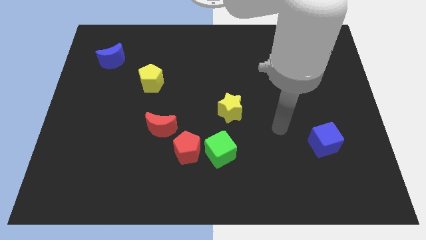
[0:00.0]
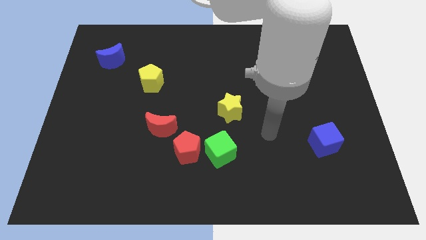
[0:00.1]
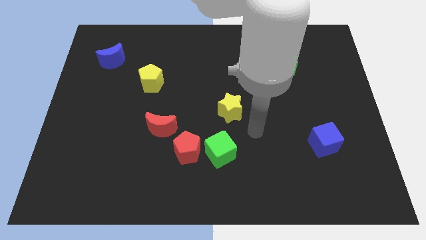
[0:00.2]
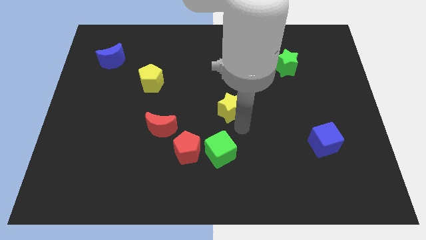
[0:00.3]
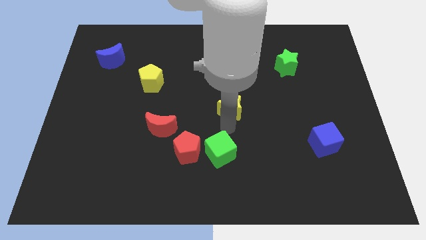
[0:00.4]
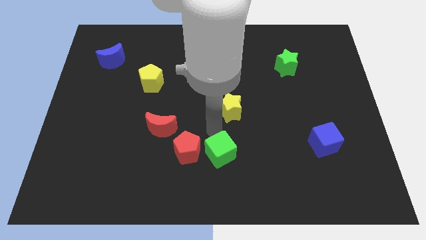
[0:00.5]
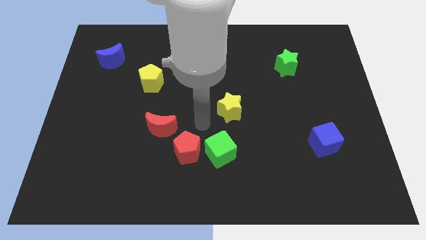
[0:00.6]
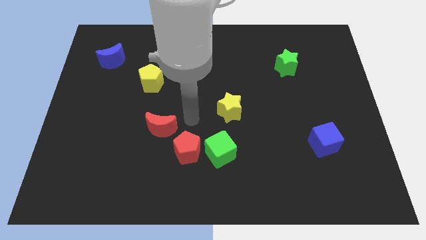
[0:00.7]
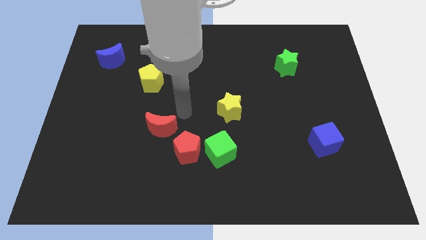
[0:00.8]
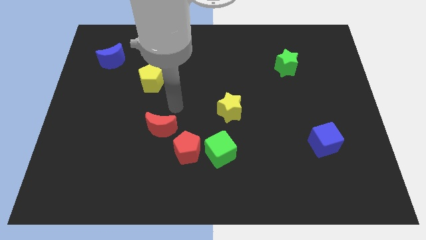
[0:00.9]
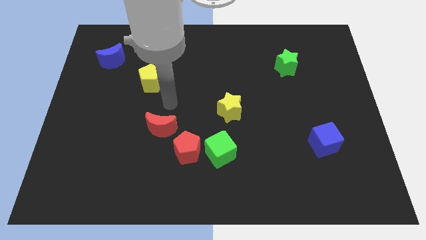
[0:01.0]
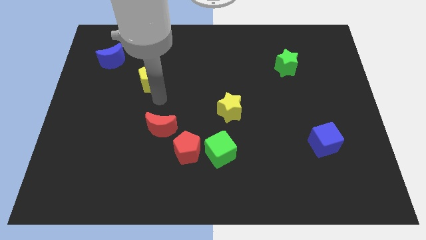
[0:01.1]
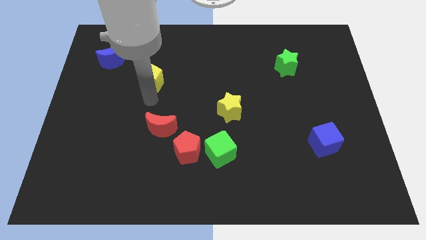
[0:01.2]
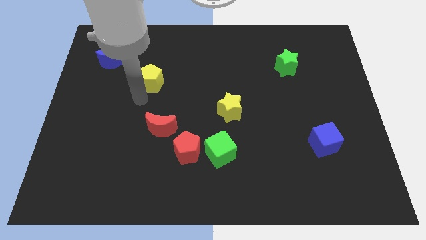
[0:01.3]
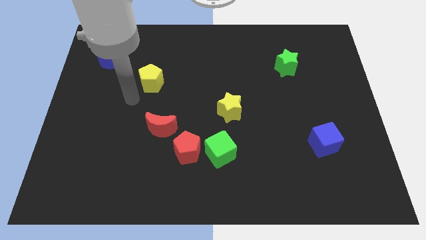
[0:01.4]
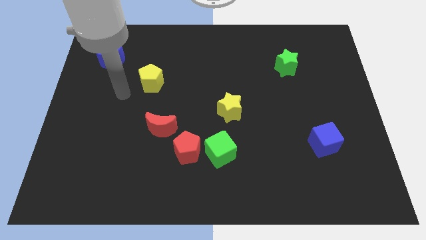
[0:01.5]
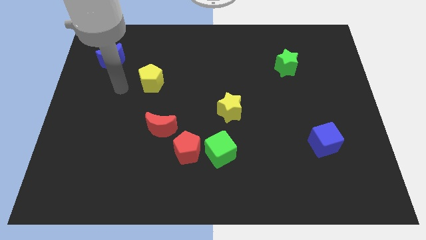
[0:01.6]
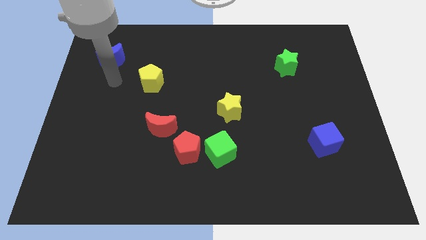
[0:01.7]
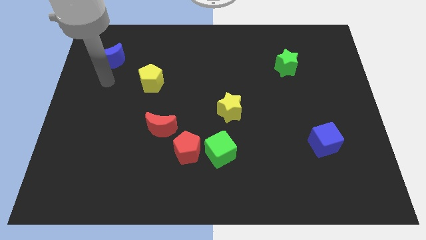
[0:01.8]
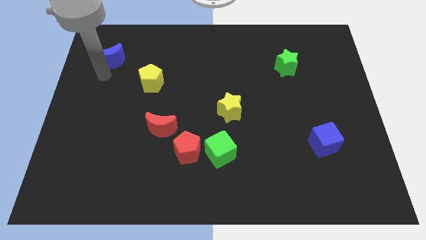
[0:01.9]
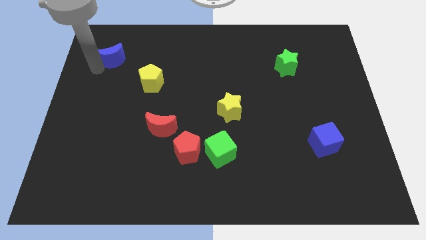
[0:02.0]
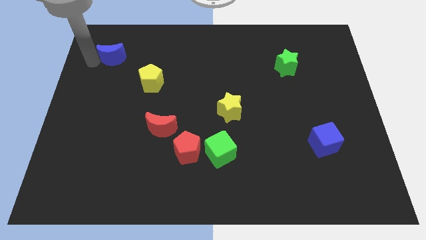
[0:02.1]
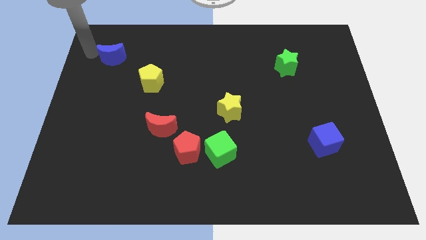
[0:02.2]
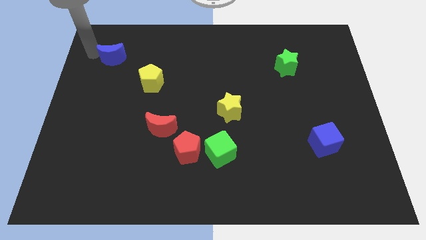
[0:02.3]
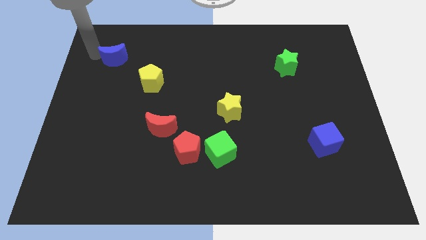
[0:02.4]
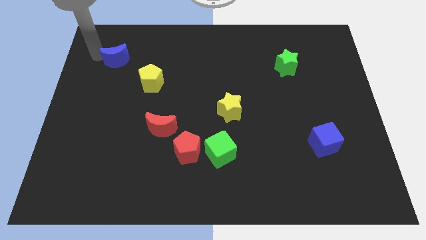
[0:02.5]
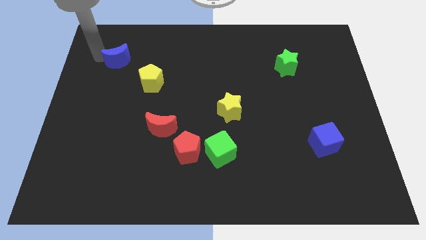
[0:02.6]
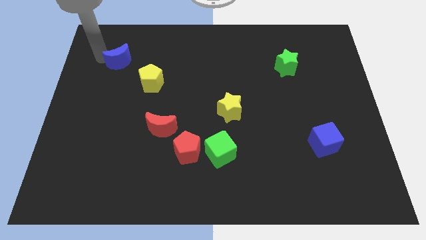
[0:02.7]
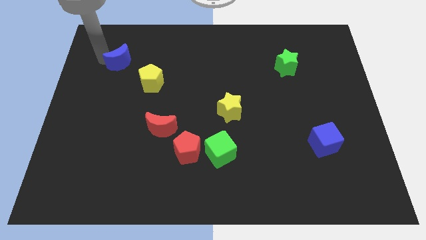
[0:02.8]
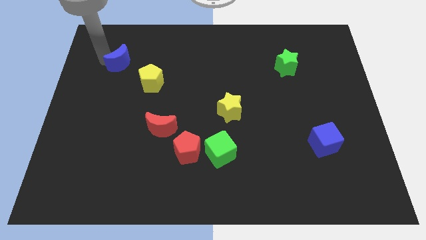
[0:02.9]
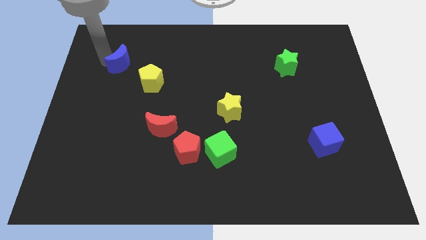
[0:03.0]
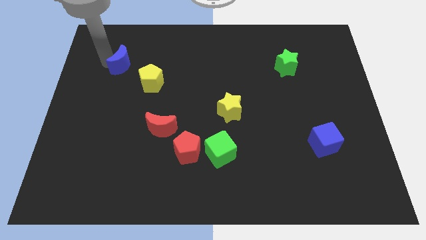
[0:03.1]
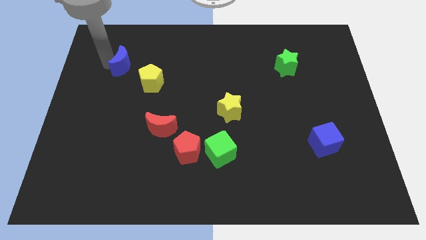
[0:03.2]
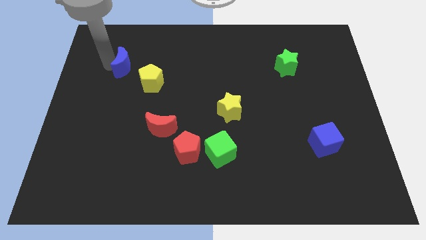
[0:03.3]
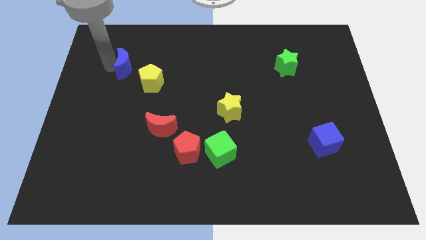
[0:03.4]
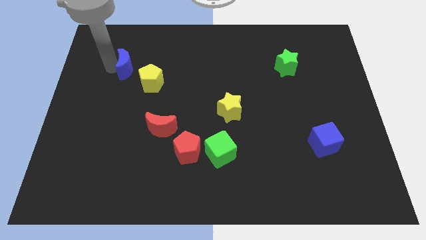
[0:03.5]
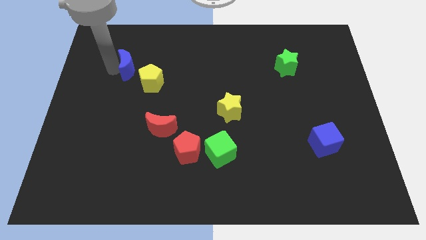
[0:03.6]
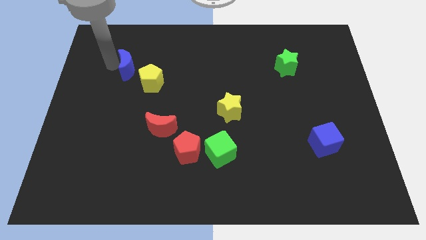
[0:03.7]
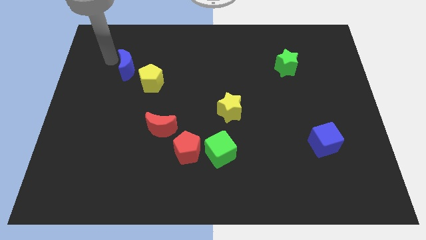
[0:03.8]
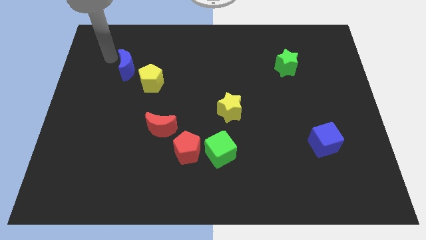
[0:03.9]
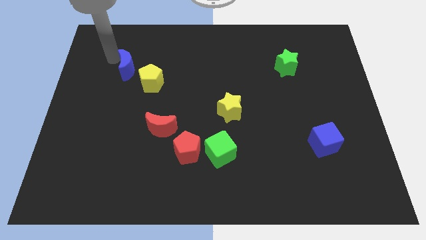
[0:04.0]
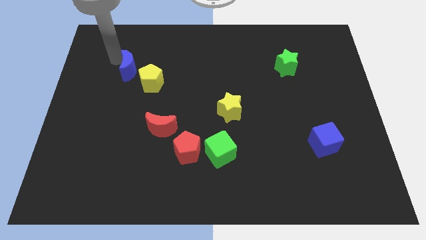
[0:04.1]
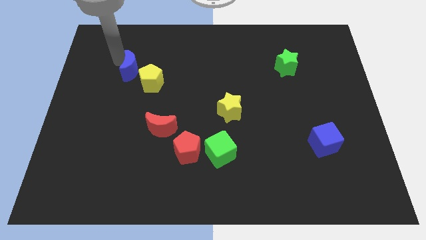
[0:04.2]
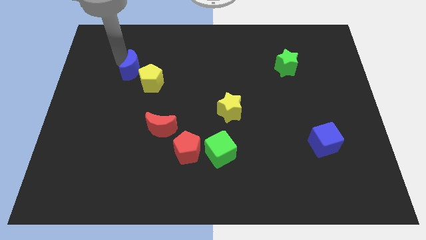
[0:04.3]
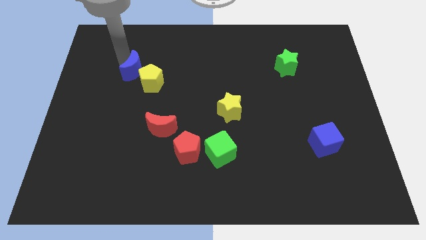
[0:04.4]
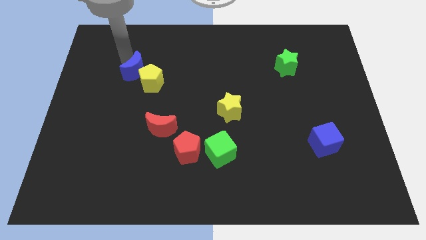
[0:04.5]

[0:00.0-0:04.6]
slide the blue moon close to the yellow pentagon

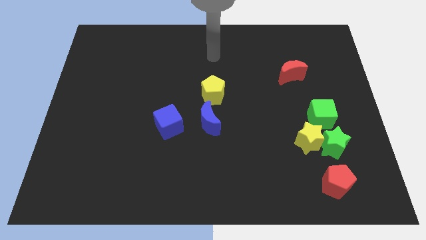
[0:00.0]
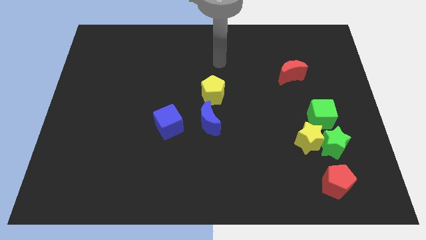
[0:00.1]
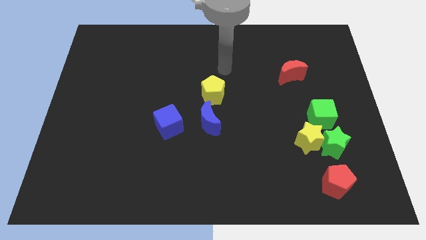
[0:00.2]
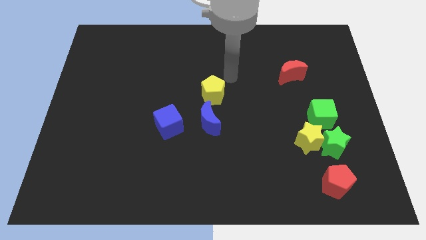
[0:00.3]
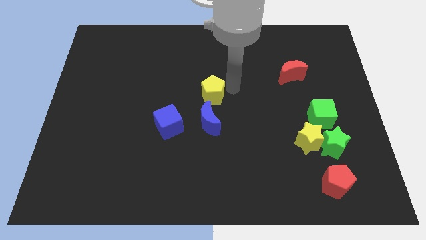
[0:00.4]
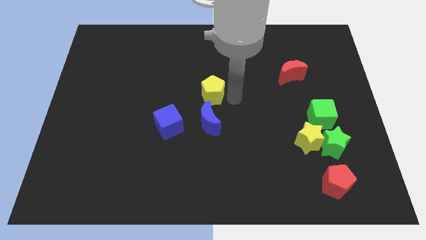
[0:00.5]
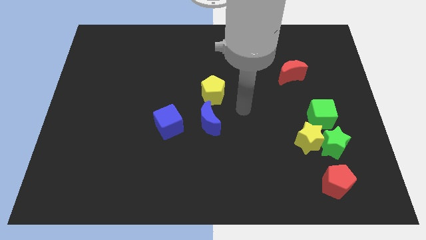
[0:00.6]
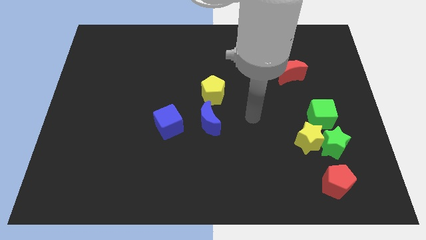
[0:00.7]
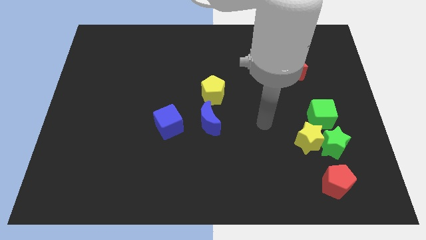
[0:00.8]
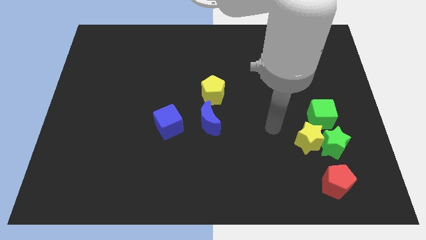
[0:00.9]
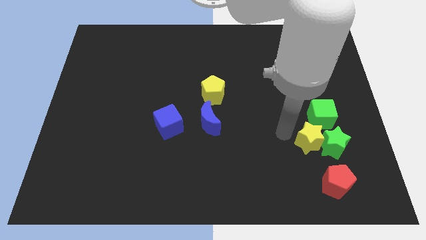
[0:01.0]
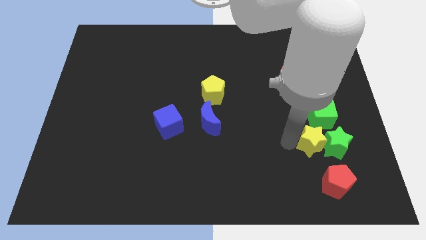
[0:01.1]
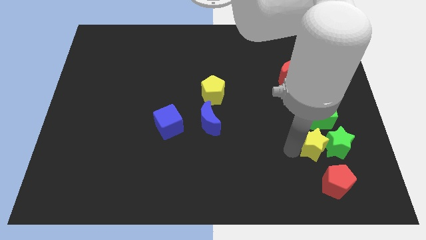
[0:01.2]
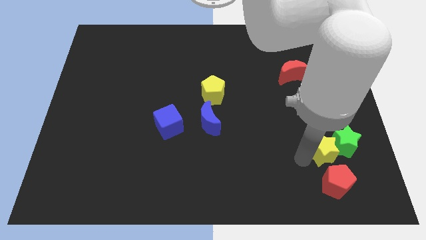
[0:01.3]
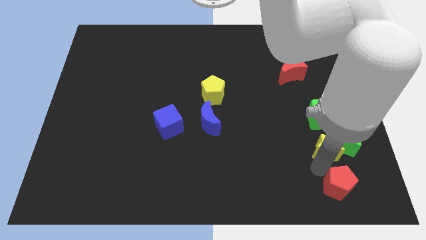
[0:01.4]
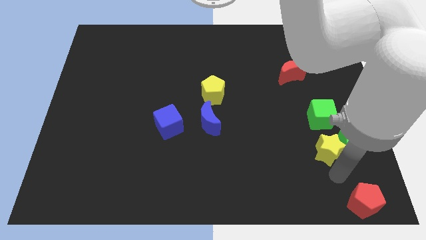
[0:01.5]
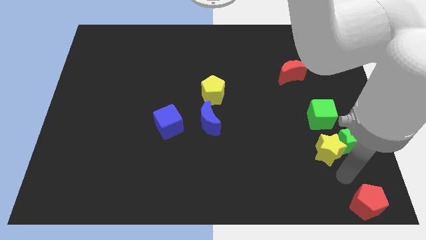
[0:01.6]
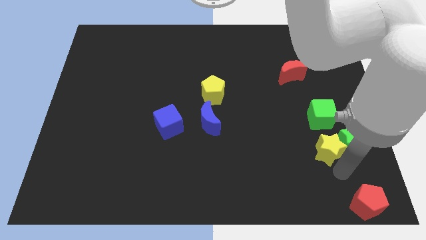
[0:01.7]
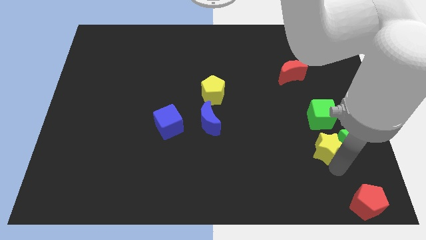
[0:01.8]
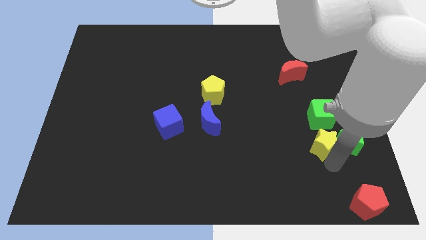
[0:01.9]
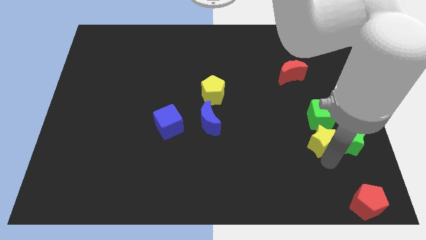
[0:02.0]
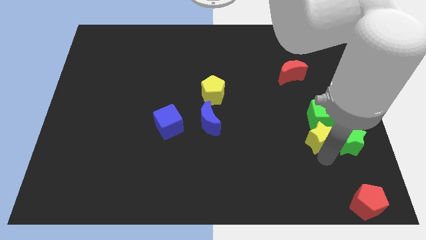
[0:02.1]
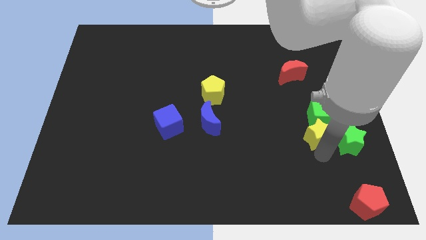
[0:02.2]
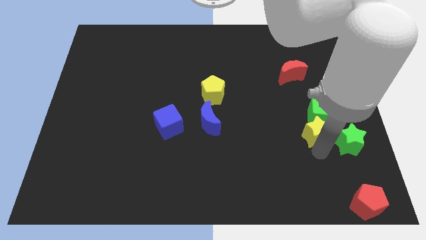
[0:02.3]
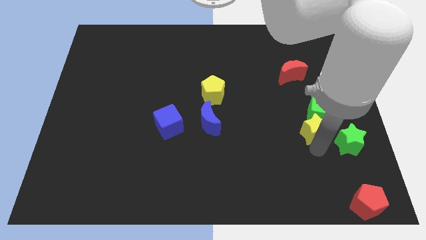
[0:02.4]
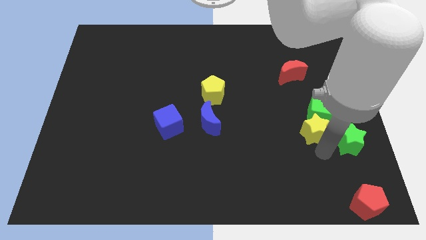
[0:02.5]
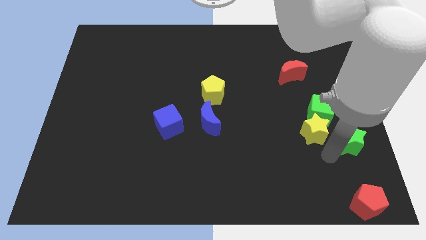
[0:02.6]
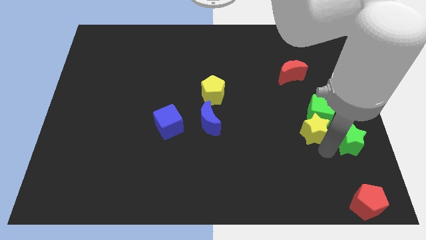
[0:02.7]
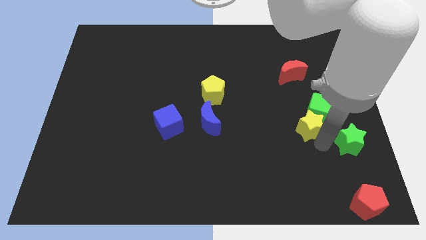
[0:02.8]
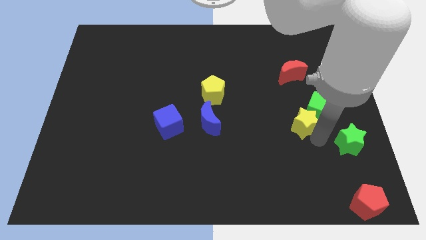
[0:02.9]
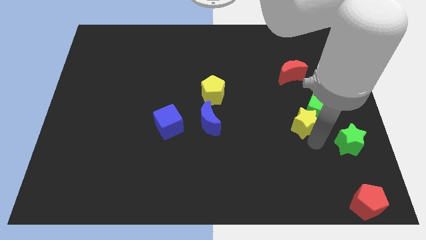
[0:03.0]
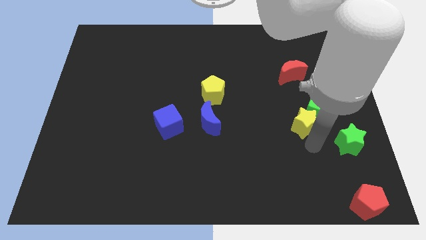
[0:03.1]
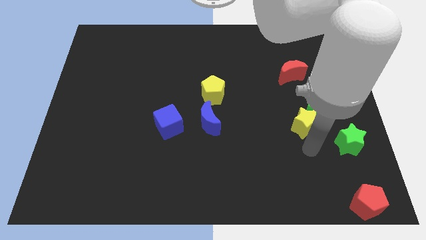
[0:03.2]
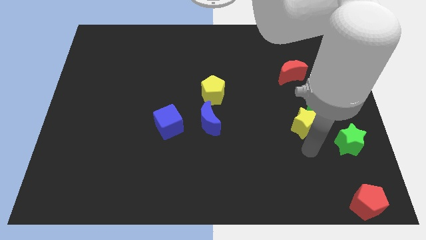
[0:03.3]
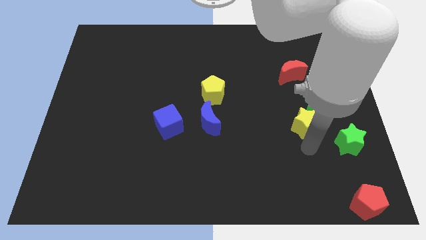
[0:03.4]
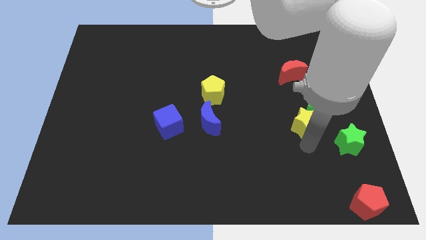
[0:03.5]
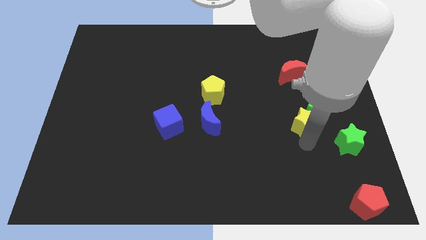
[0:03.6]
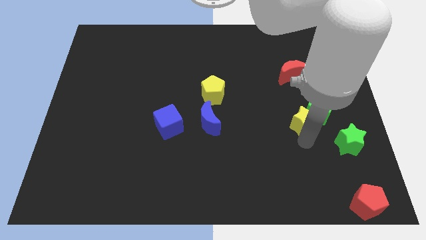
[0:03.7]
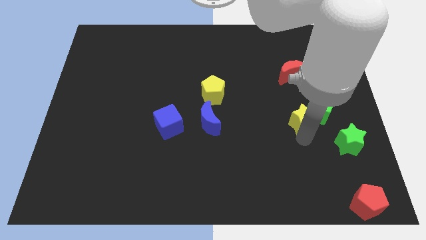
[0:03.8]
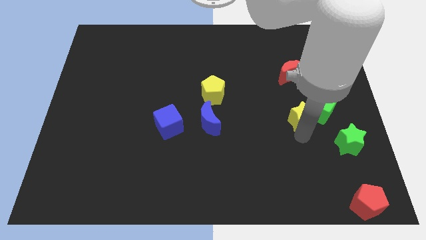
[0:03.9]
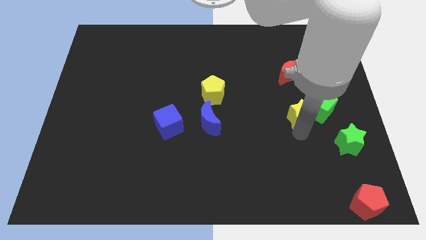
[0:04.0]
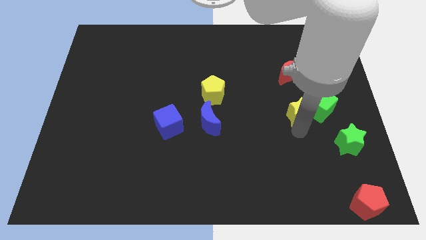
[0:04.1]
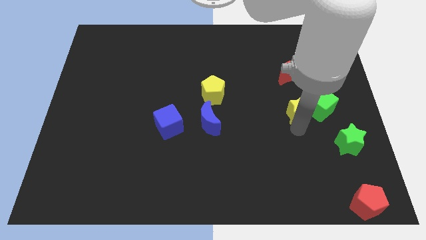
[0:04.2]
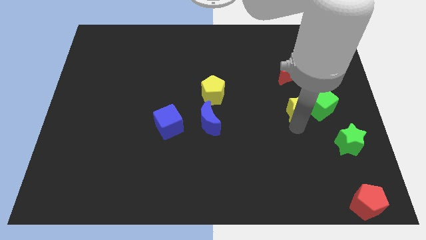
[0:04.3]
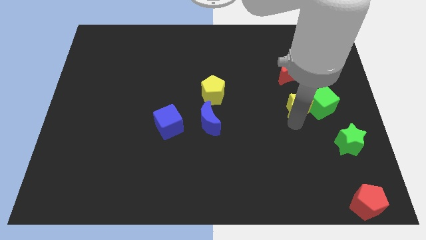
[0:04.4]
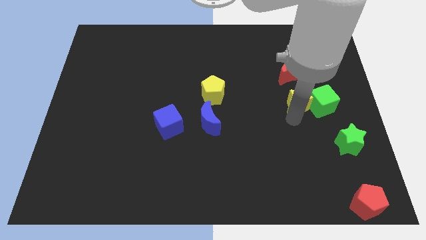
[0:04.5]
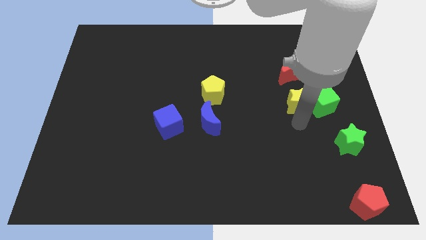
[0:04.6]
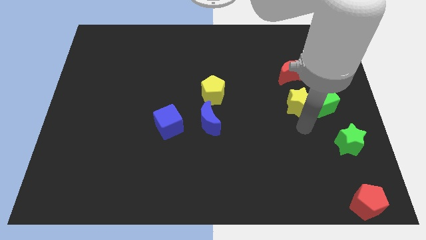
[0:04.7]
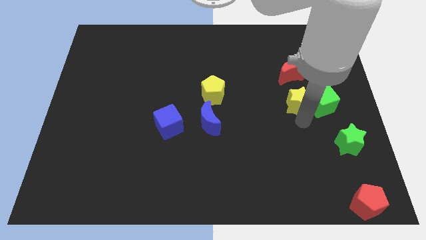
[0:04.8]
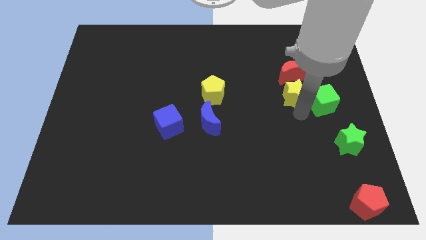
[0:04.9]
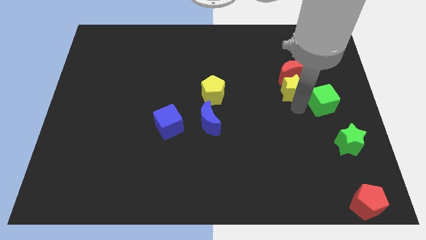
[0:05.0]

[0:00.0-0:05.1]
slide the yellow star towards the red moon
